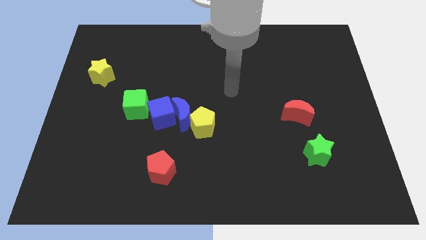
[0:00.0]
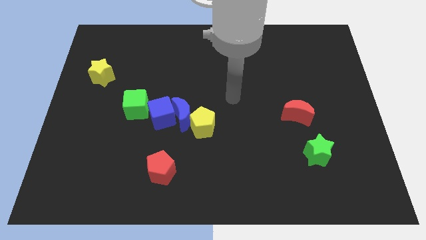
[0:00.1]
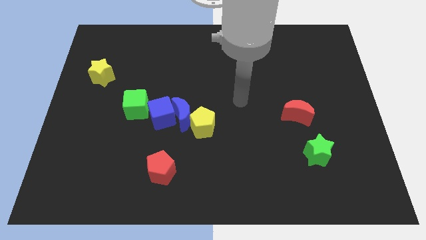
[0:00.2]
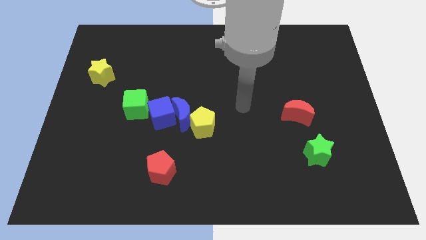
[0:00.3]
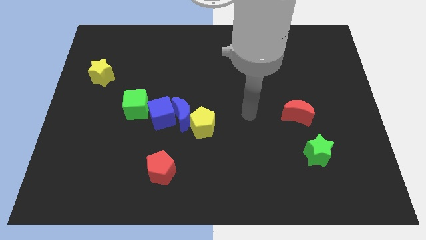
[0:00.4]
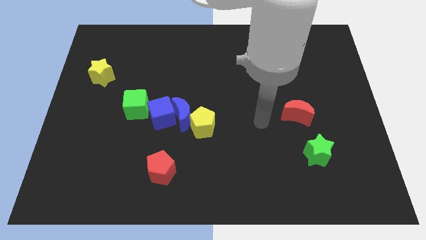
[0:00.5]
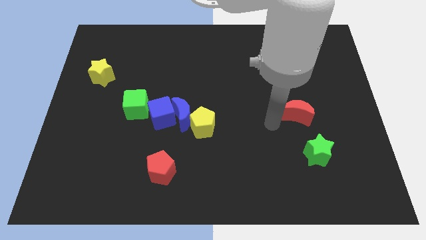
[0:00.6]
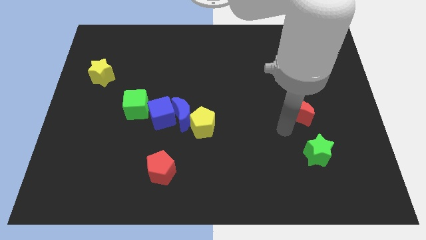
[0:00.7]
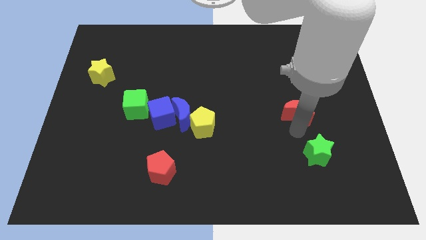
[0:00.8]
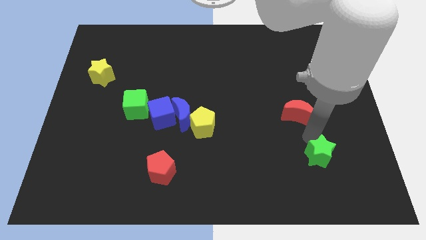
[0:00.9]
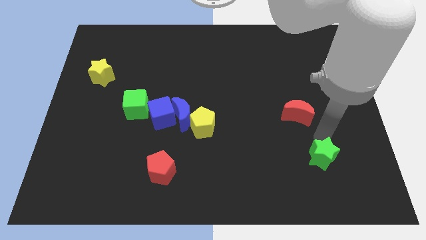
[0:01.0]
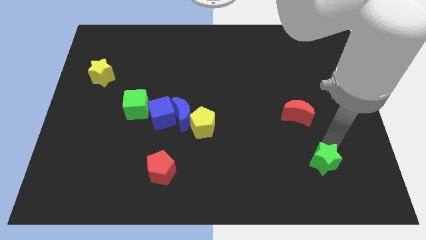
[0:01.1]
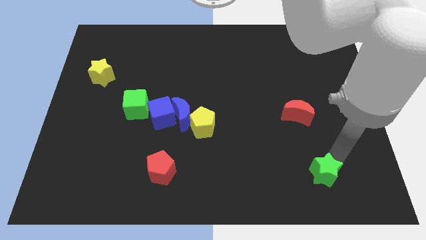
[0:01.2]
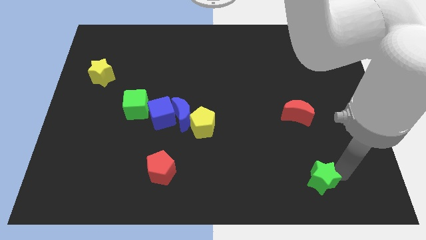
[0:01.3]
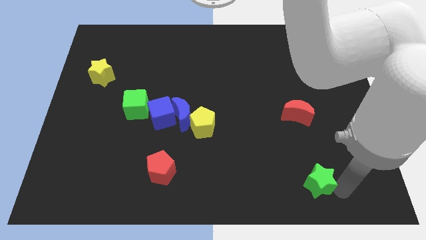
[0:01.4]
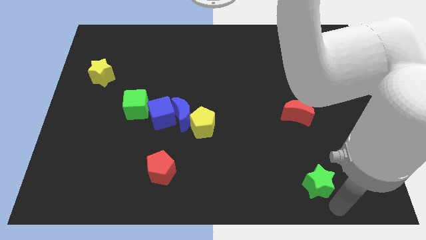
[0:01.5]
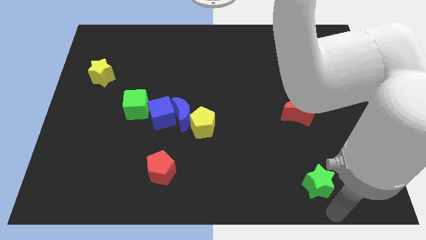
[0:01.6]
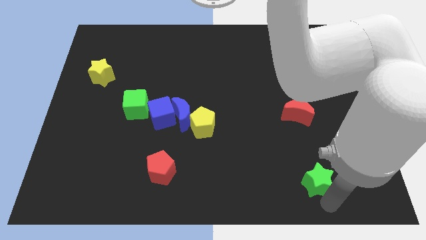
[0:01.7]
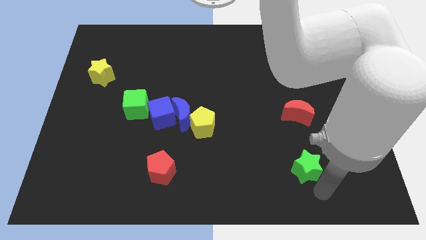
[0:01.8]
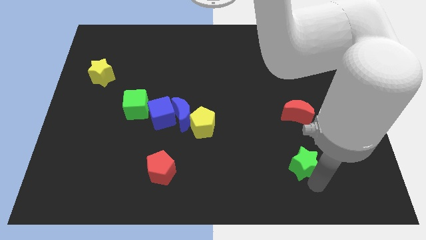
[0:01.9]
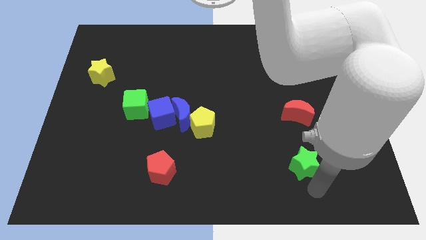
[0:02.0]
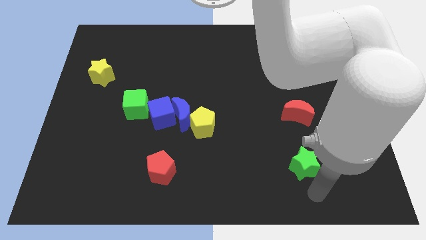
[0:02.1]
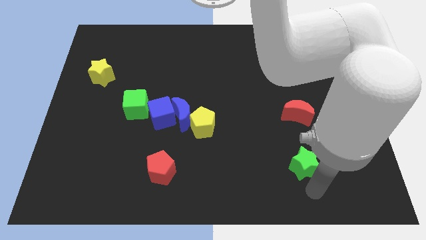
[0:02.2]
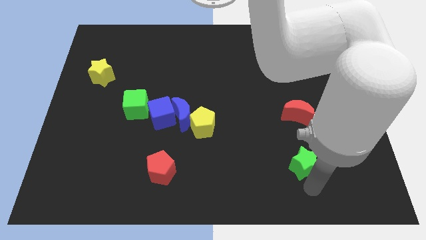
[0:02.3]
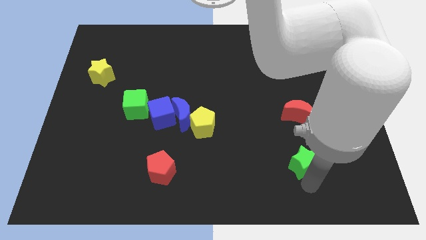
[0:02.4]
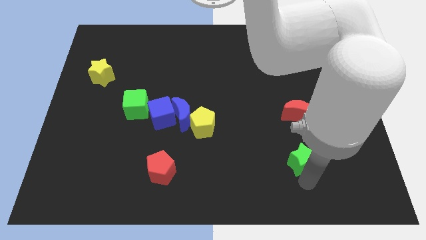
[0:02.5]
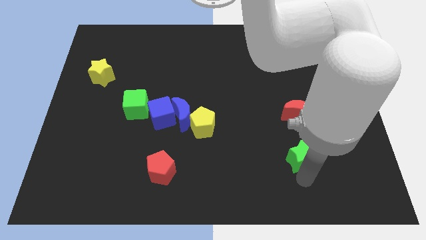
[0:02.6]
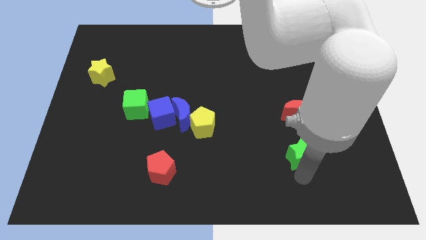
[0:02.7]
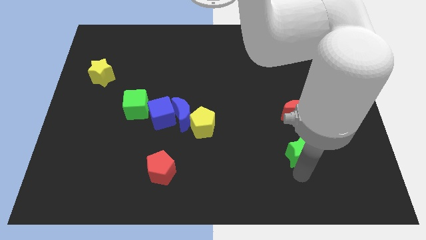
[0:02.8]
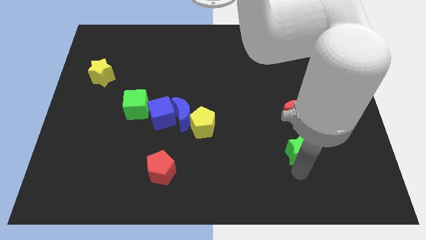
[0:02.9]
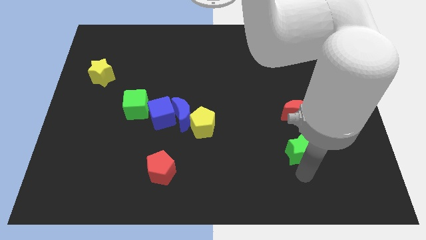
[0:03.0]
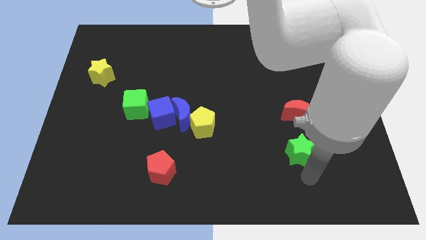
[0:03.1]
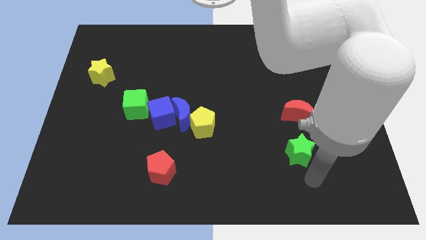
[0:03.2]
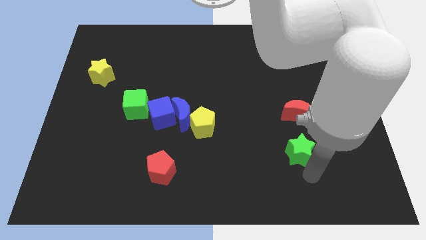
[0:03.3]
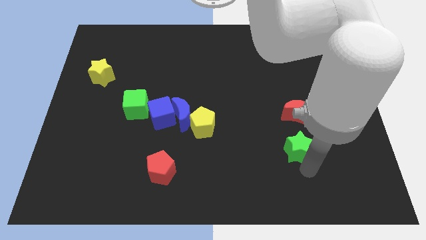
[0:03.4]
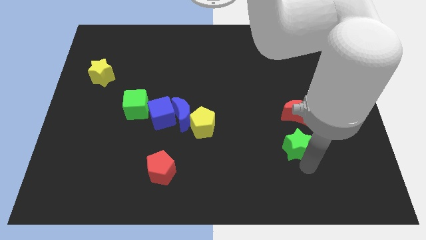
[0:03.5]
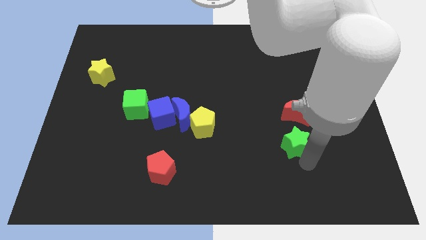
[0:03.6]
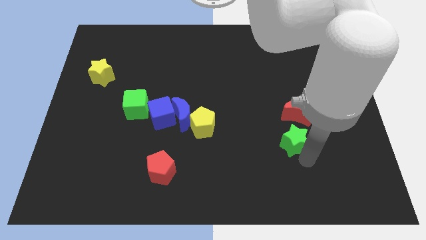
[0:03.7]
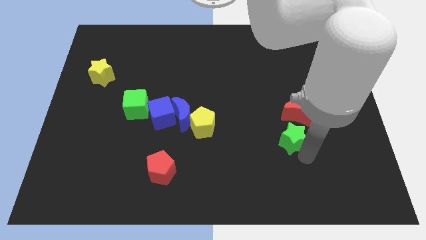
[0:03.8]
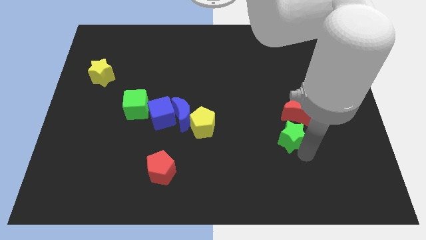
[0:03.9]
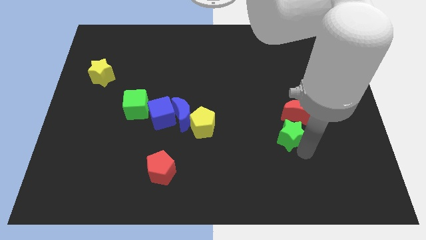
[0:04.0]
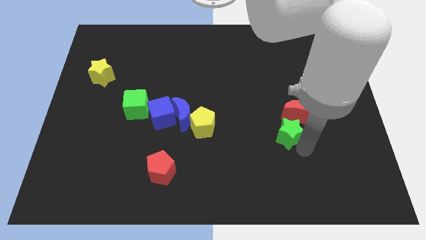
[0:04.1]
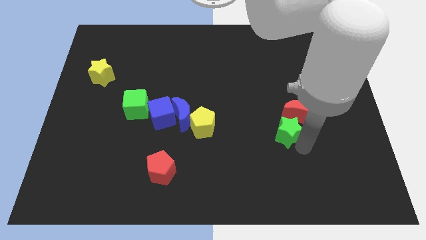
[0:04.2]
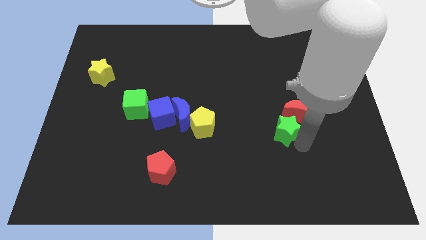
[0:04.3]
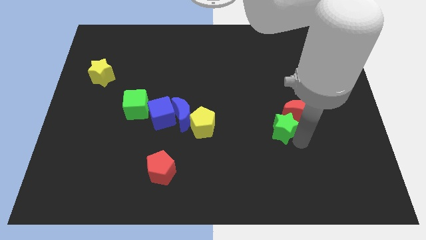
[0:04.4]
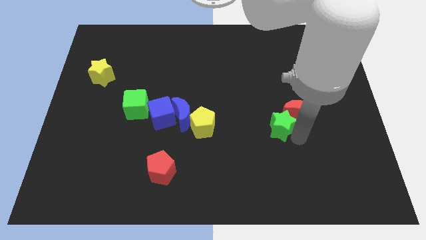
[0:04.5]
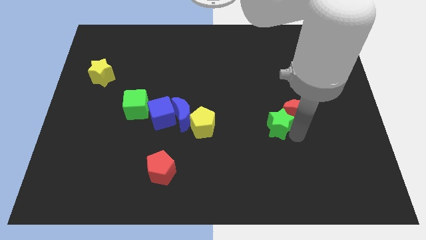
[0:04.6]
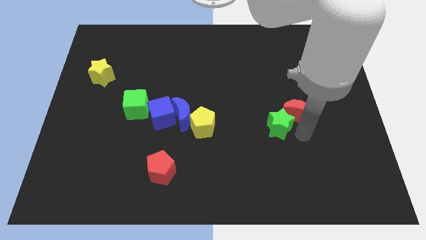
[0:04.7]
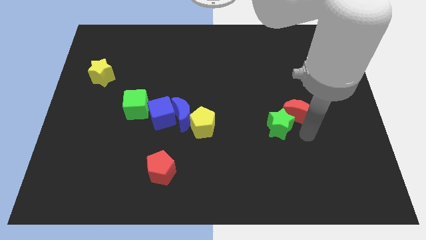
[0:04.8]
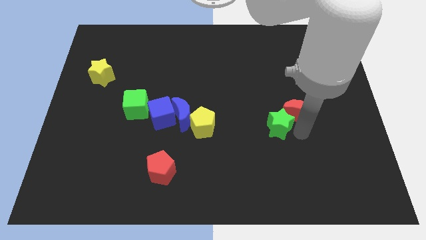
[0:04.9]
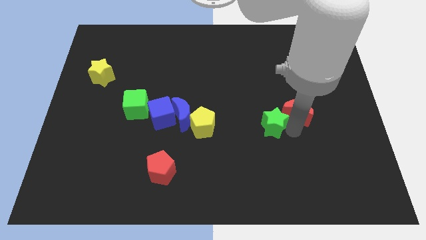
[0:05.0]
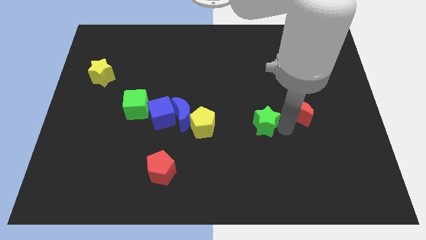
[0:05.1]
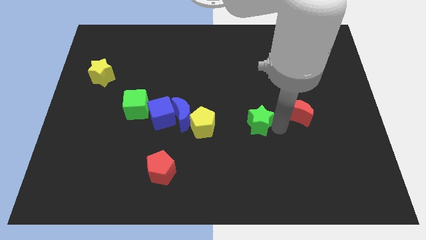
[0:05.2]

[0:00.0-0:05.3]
slide the green star to the center of the board

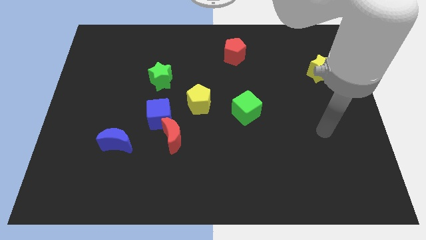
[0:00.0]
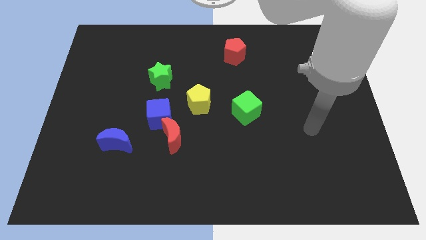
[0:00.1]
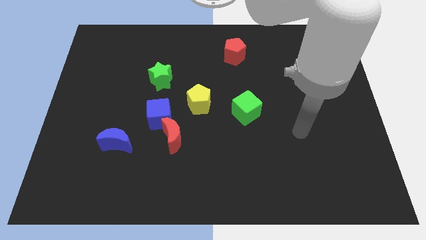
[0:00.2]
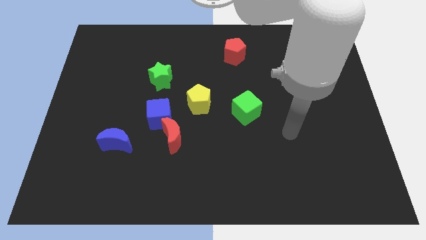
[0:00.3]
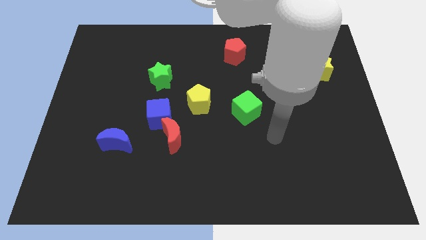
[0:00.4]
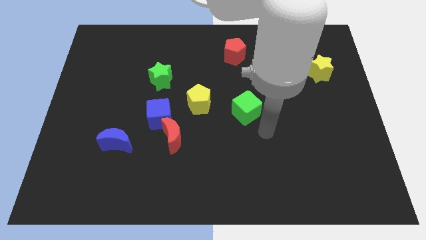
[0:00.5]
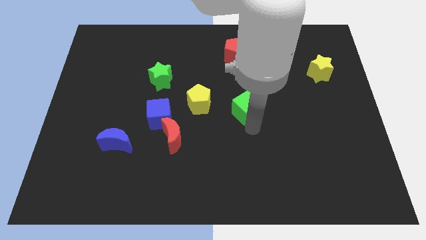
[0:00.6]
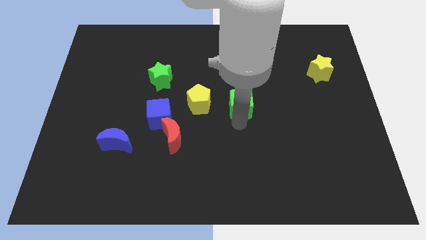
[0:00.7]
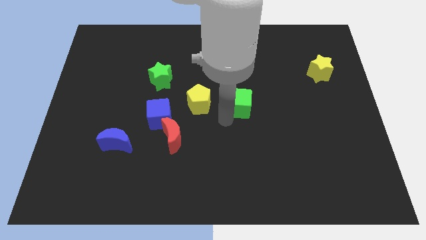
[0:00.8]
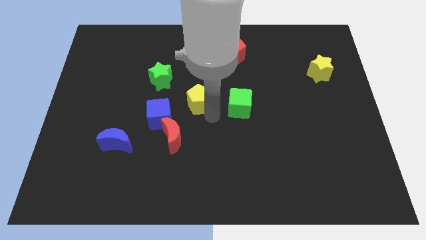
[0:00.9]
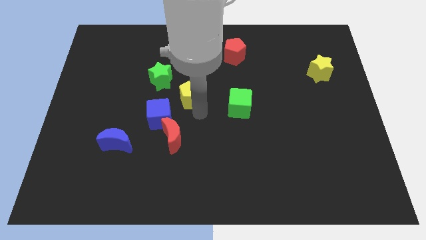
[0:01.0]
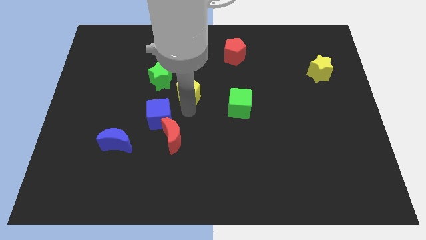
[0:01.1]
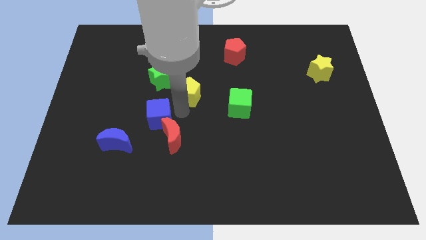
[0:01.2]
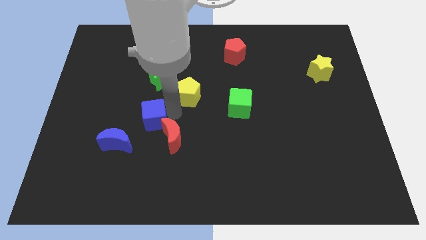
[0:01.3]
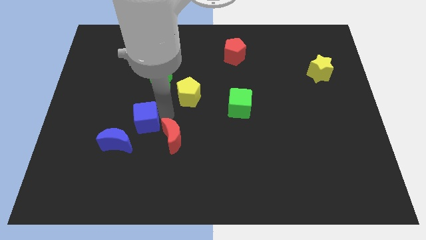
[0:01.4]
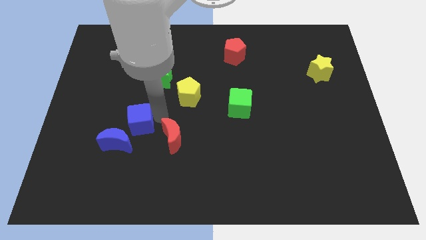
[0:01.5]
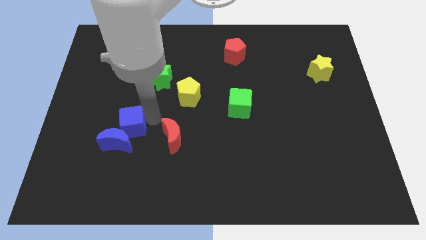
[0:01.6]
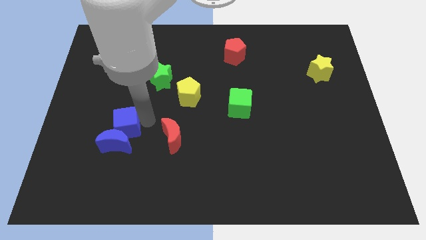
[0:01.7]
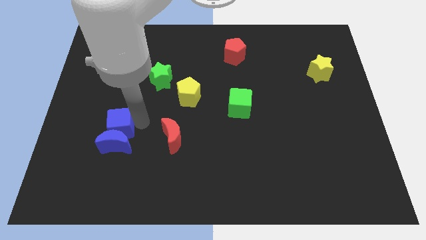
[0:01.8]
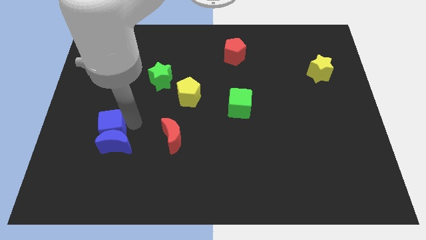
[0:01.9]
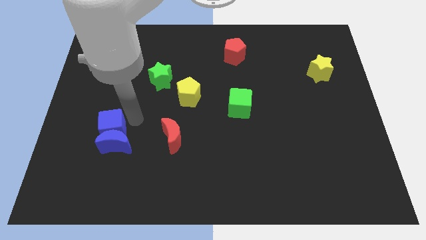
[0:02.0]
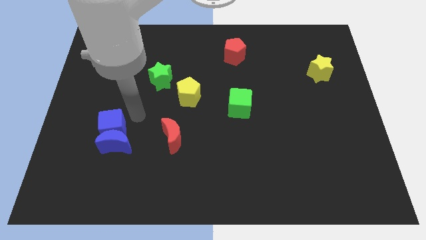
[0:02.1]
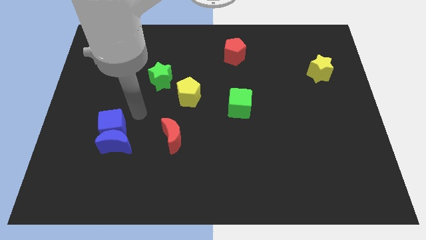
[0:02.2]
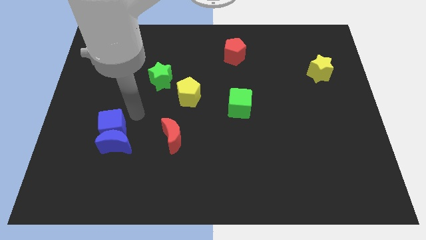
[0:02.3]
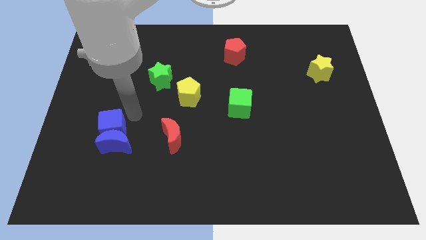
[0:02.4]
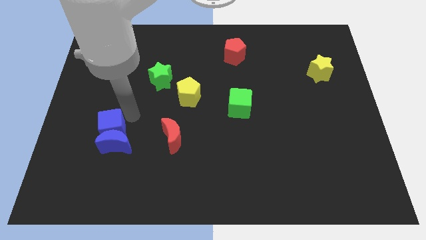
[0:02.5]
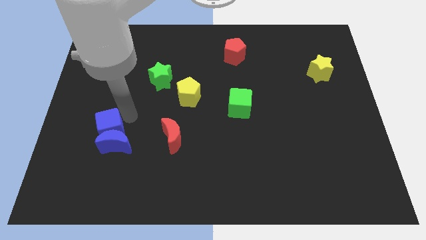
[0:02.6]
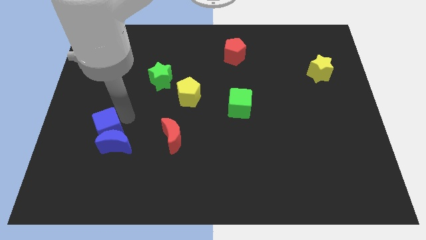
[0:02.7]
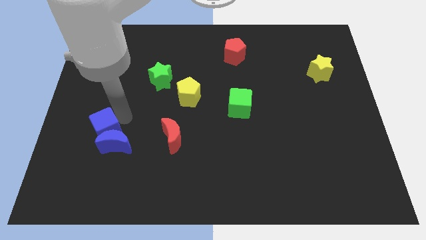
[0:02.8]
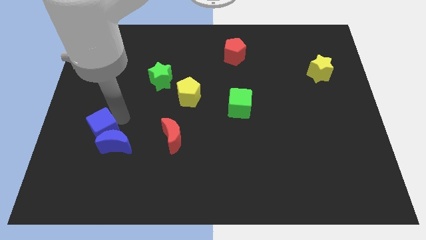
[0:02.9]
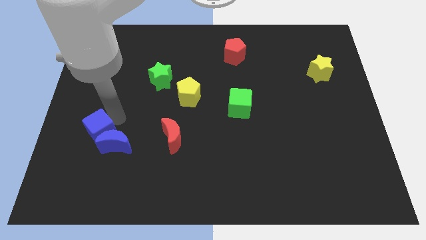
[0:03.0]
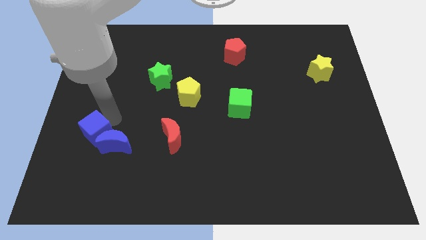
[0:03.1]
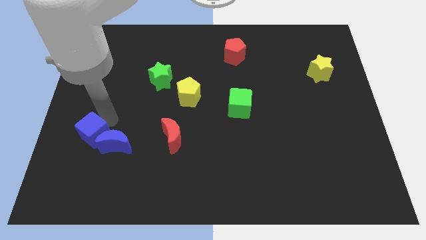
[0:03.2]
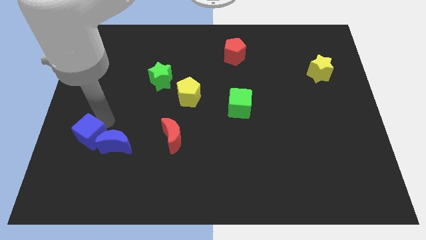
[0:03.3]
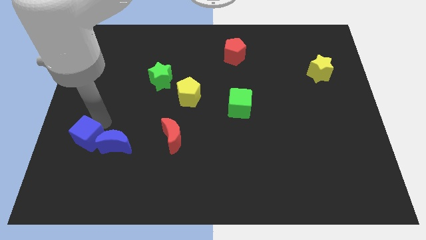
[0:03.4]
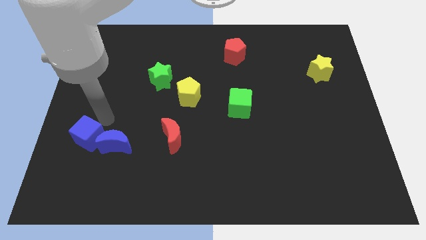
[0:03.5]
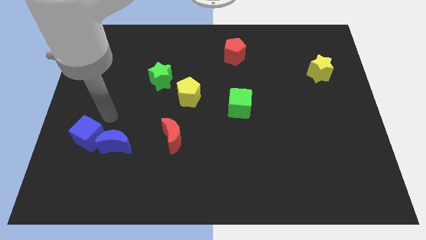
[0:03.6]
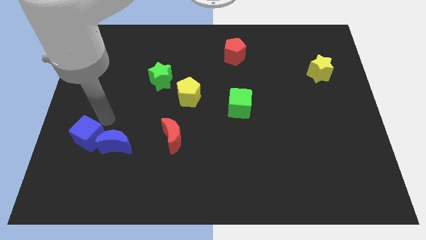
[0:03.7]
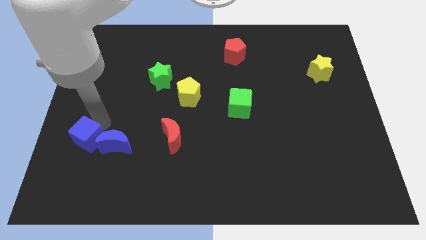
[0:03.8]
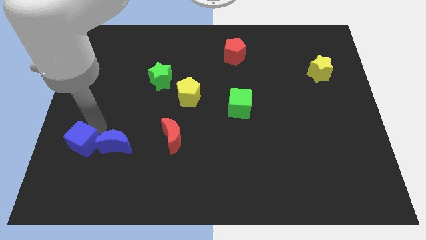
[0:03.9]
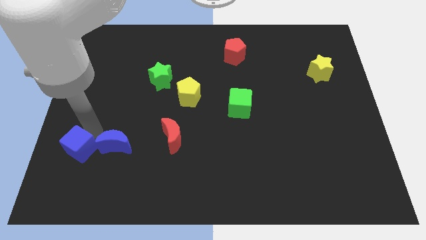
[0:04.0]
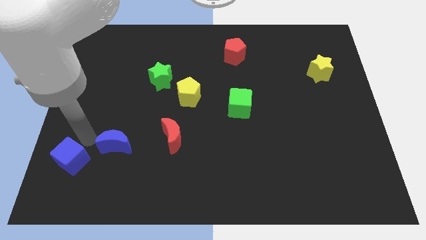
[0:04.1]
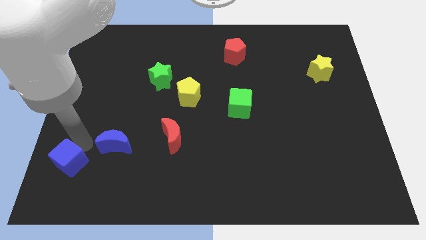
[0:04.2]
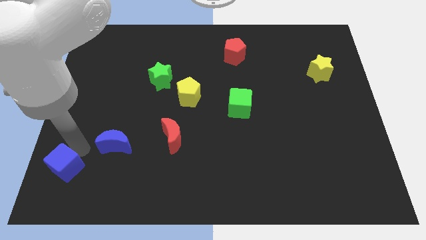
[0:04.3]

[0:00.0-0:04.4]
slide the blue cube to the bottom left
